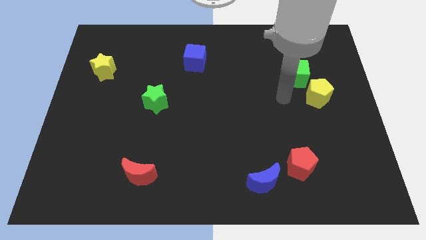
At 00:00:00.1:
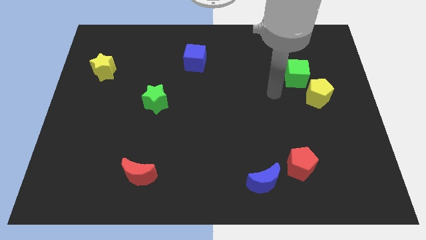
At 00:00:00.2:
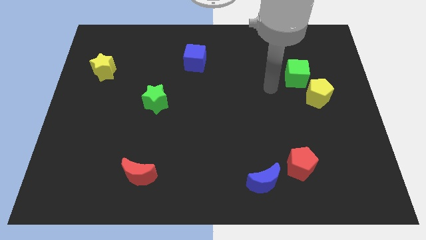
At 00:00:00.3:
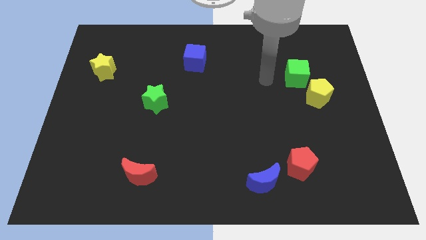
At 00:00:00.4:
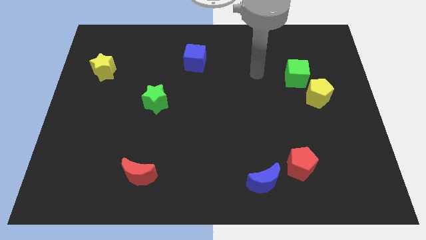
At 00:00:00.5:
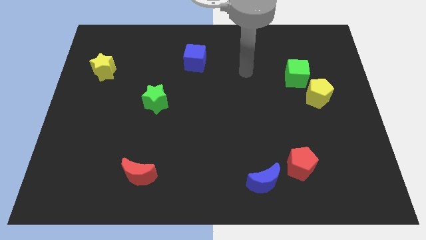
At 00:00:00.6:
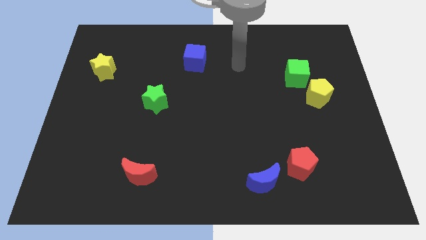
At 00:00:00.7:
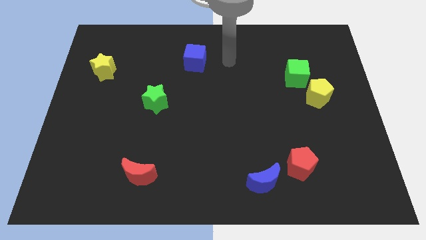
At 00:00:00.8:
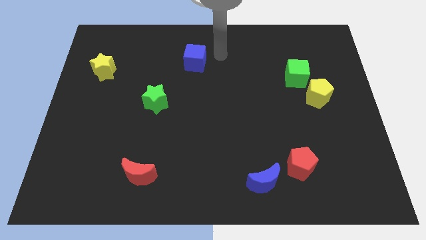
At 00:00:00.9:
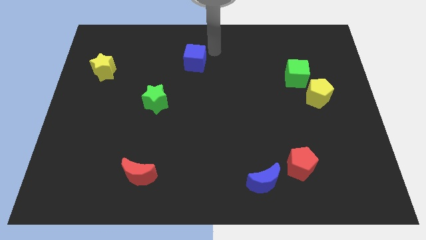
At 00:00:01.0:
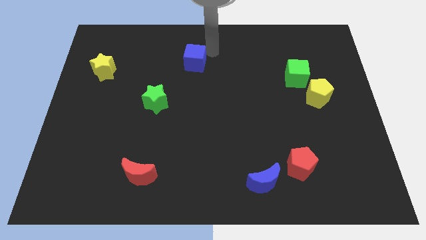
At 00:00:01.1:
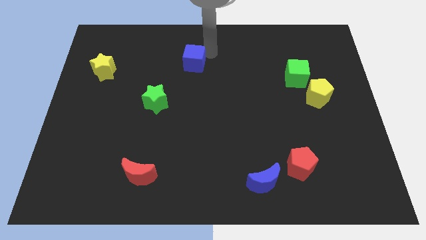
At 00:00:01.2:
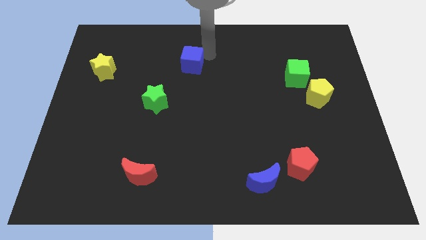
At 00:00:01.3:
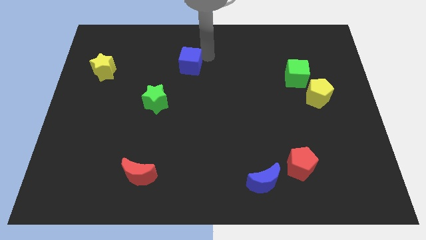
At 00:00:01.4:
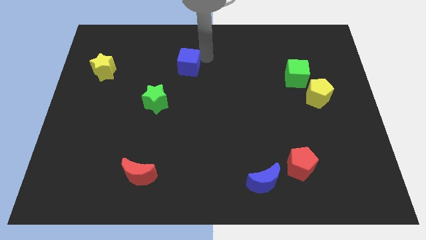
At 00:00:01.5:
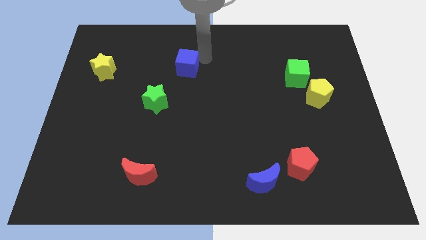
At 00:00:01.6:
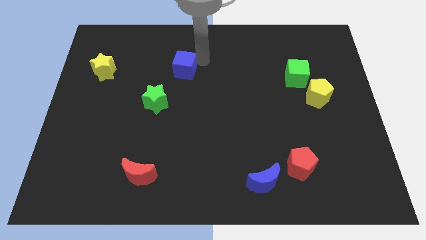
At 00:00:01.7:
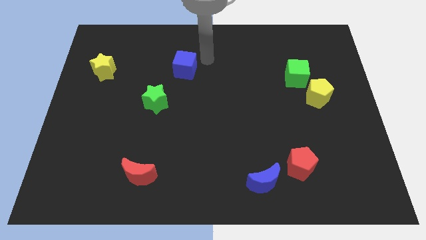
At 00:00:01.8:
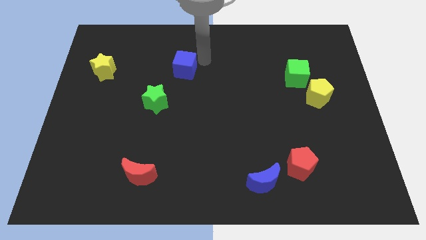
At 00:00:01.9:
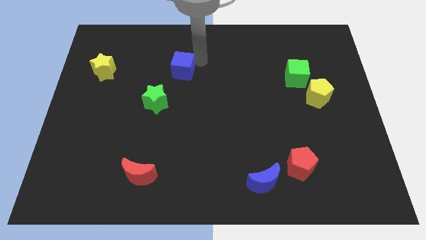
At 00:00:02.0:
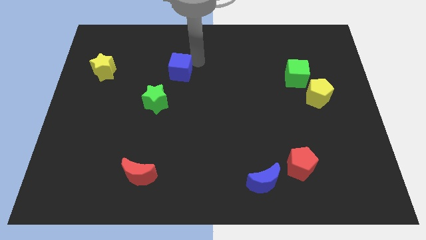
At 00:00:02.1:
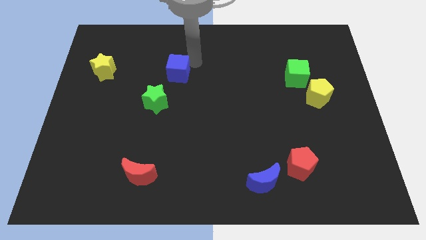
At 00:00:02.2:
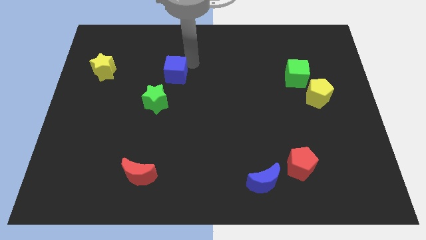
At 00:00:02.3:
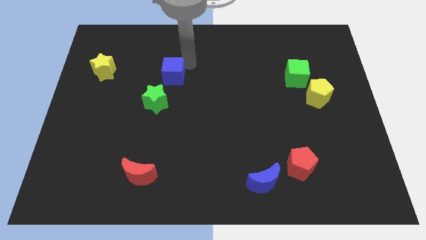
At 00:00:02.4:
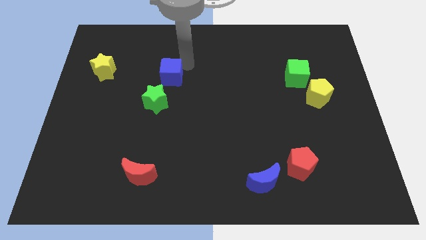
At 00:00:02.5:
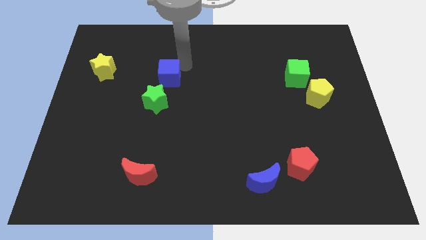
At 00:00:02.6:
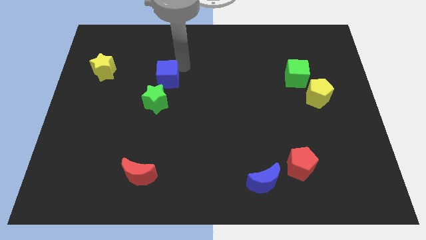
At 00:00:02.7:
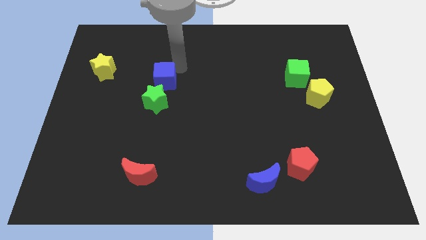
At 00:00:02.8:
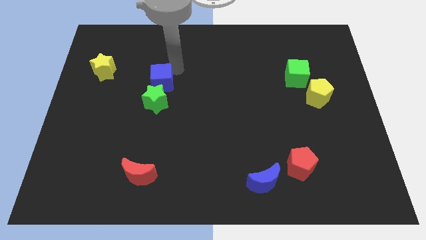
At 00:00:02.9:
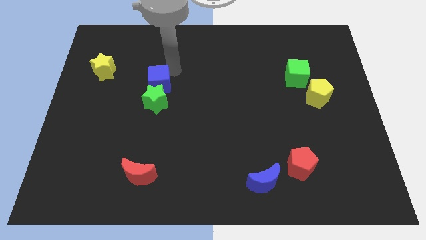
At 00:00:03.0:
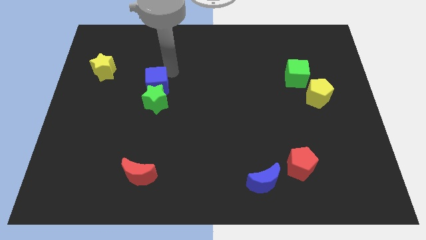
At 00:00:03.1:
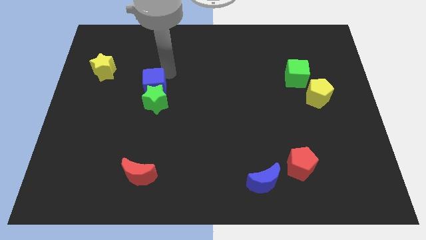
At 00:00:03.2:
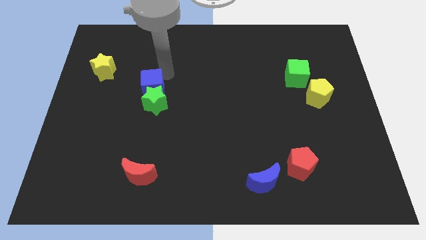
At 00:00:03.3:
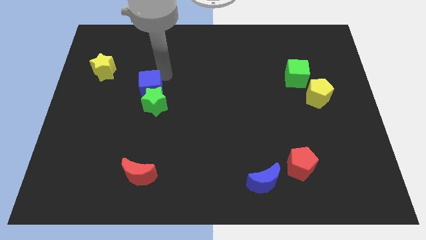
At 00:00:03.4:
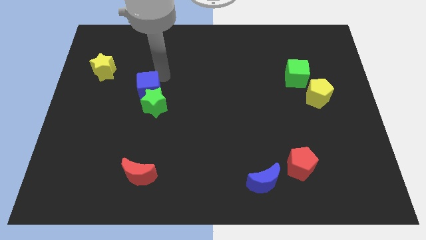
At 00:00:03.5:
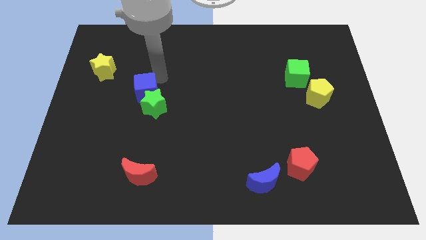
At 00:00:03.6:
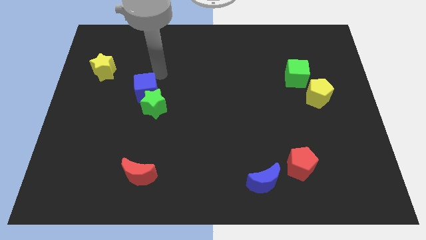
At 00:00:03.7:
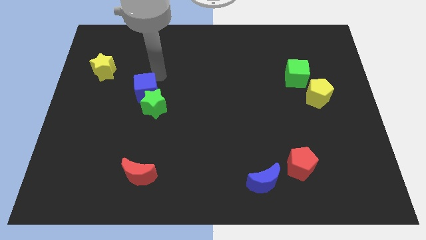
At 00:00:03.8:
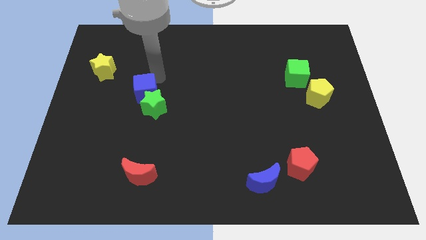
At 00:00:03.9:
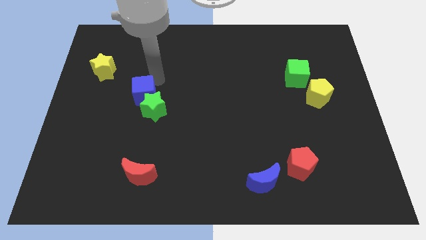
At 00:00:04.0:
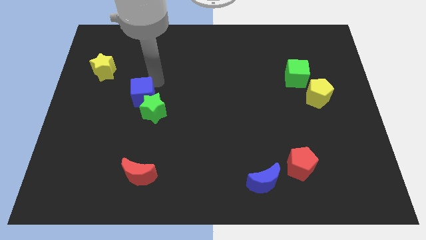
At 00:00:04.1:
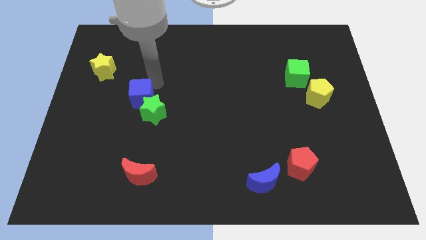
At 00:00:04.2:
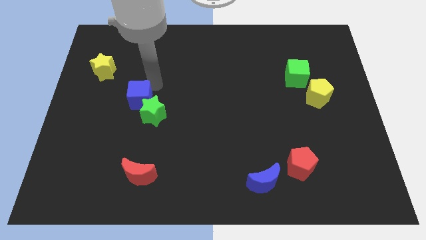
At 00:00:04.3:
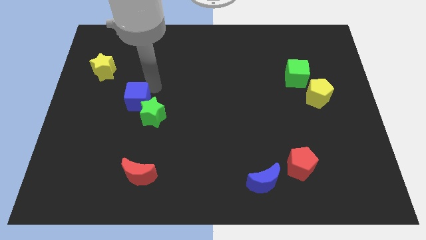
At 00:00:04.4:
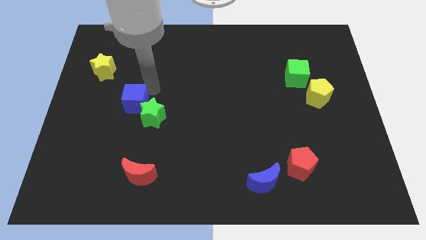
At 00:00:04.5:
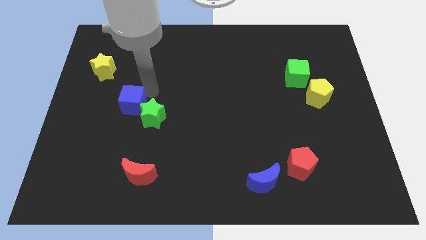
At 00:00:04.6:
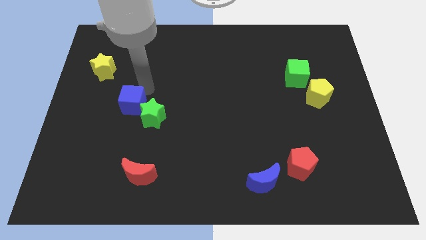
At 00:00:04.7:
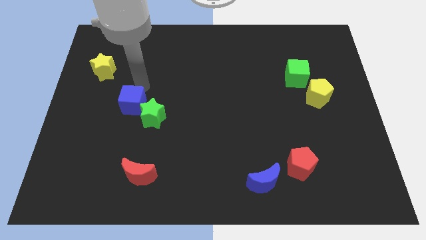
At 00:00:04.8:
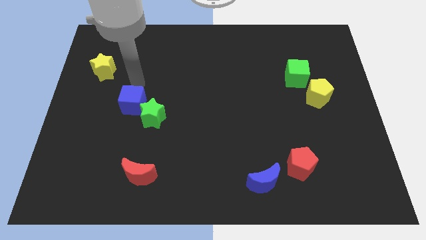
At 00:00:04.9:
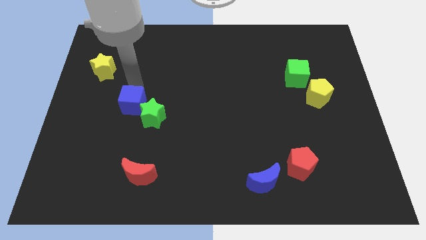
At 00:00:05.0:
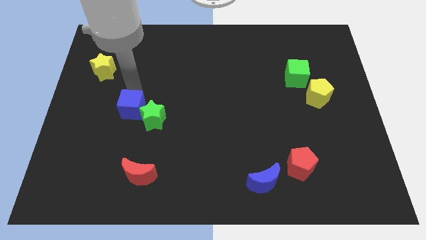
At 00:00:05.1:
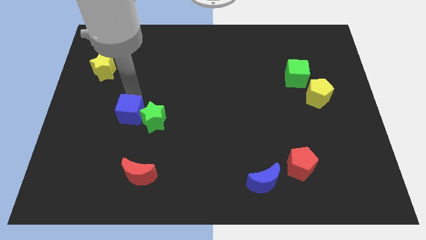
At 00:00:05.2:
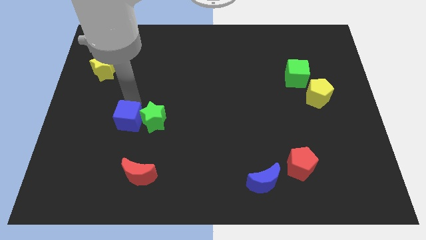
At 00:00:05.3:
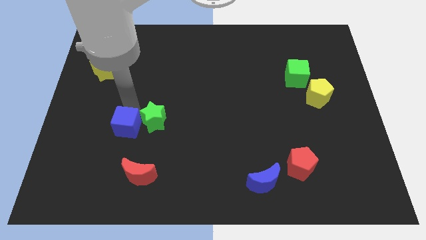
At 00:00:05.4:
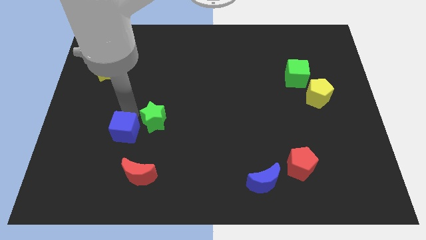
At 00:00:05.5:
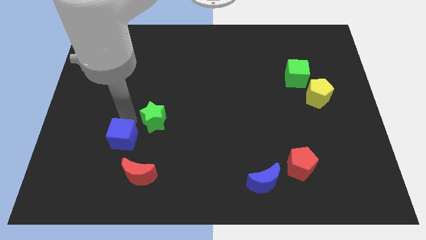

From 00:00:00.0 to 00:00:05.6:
move the blue cube to the top left of the red moon
